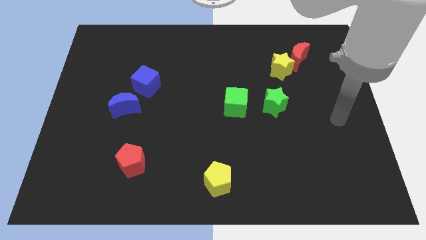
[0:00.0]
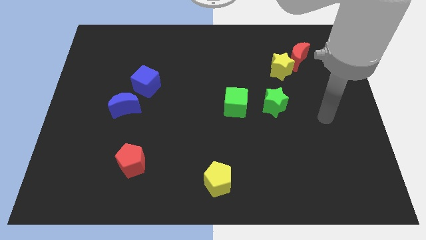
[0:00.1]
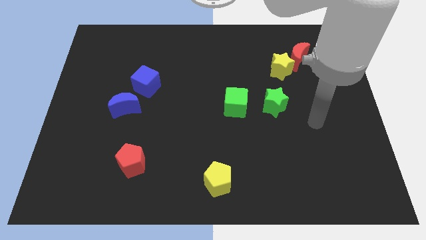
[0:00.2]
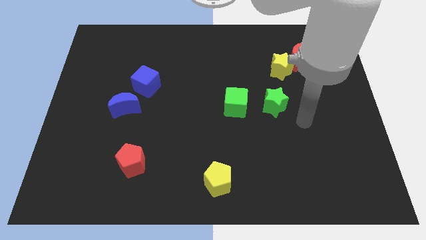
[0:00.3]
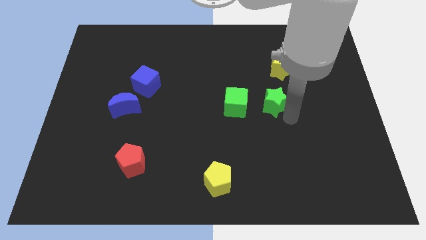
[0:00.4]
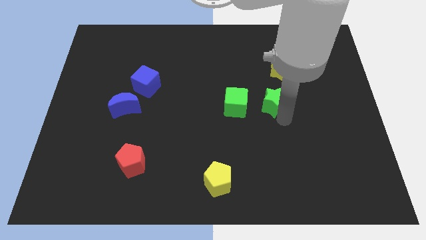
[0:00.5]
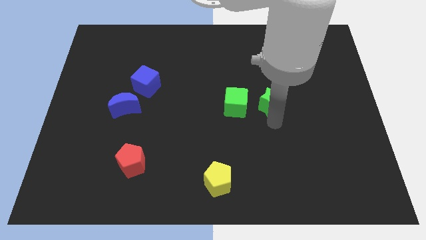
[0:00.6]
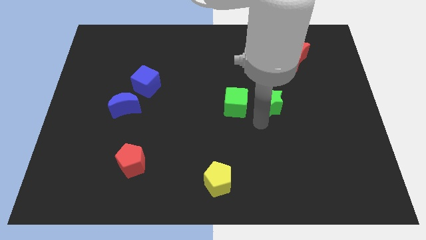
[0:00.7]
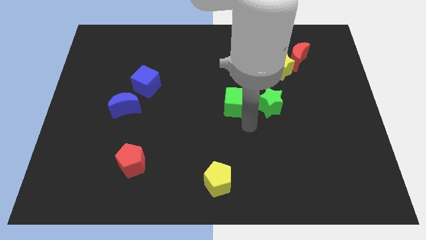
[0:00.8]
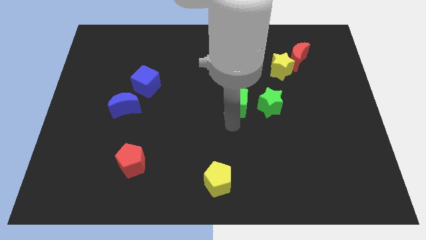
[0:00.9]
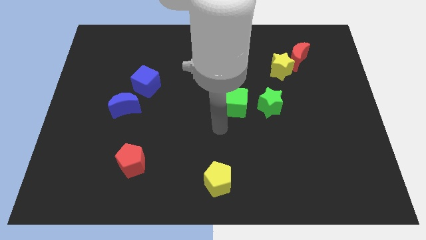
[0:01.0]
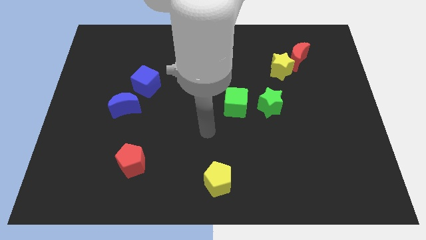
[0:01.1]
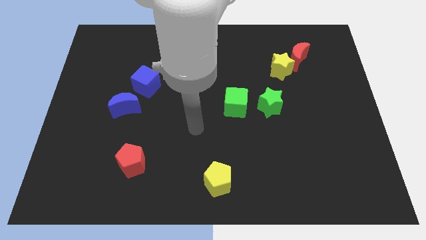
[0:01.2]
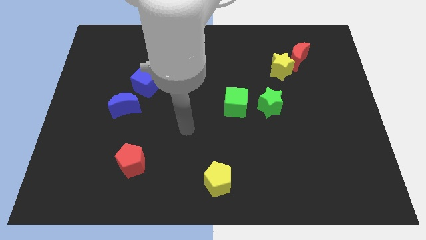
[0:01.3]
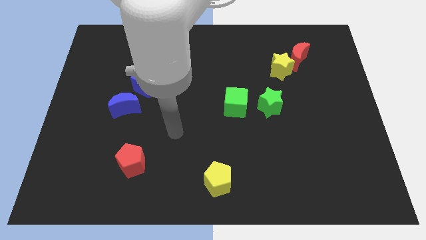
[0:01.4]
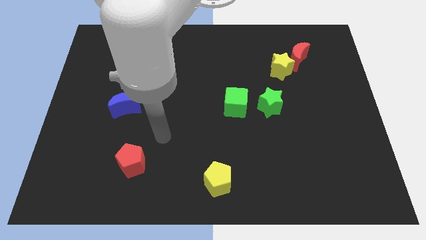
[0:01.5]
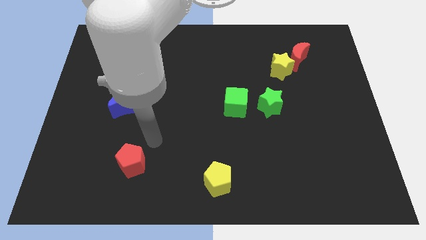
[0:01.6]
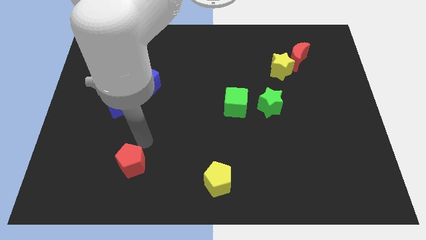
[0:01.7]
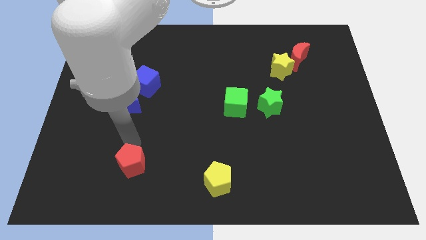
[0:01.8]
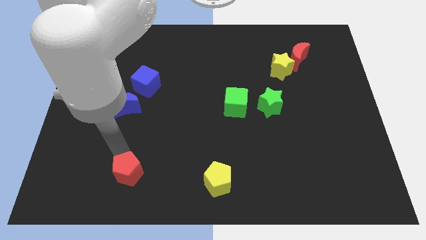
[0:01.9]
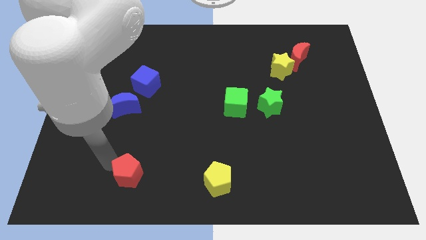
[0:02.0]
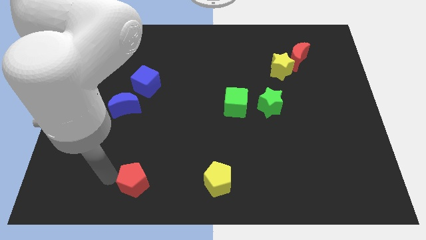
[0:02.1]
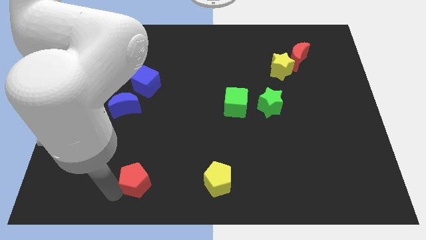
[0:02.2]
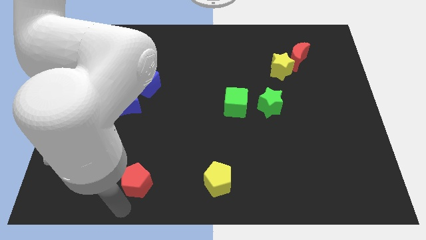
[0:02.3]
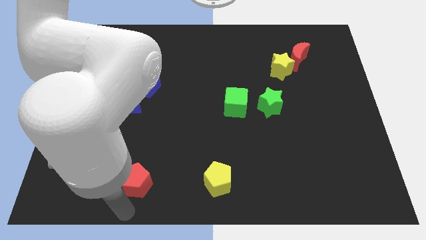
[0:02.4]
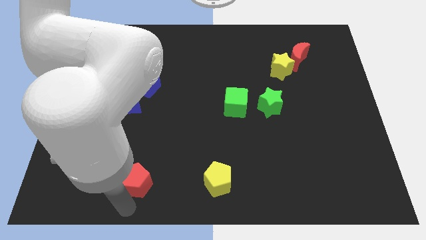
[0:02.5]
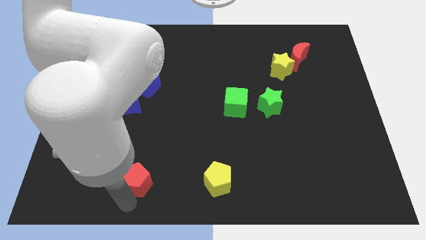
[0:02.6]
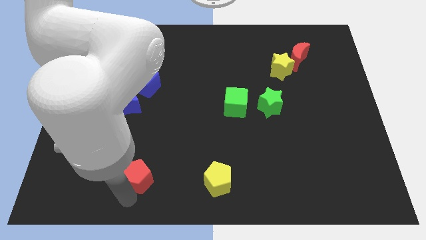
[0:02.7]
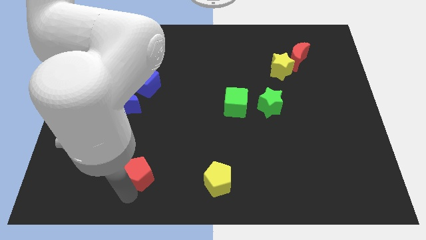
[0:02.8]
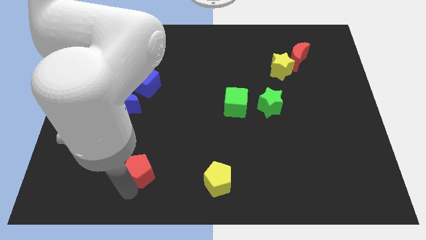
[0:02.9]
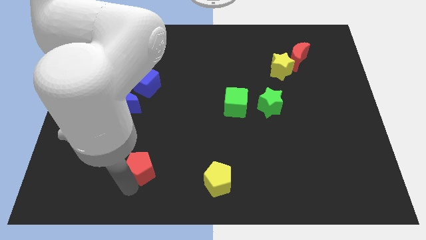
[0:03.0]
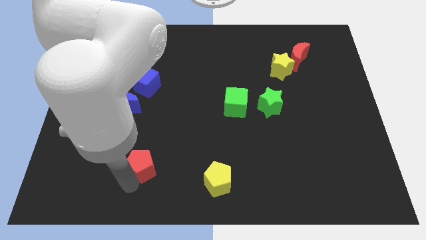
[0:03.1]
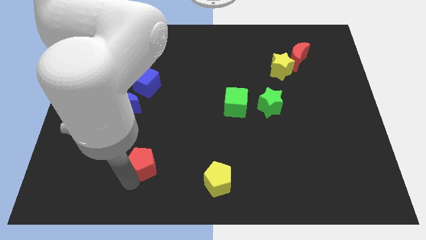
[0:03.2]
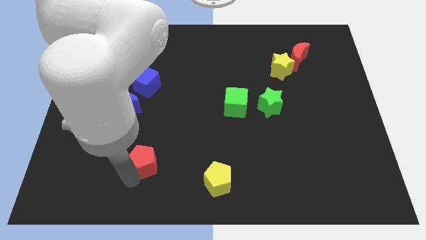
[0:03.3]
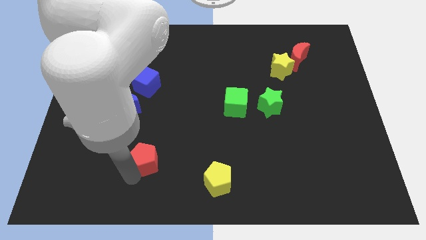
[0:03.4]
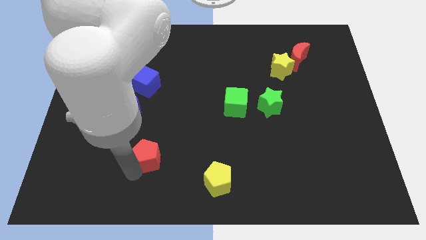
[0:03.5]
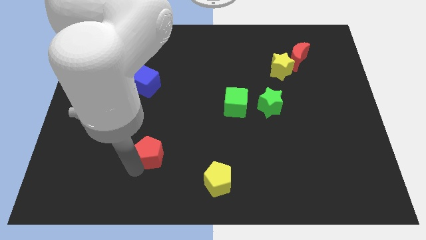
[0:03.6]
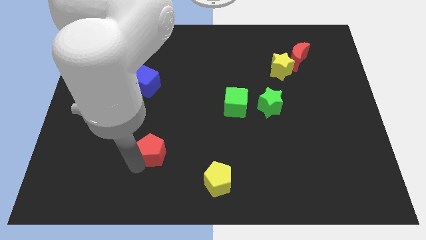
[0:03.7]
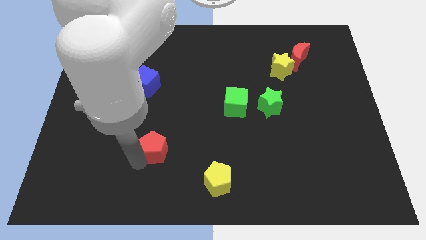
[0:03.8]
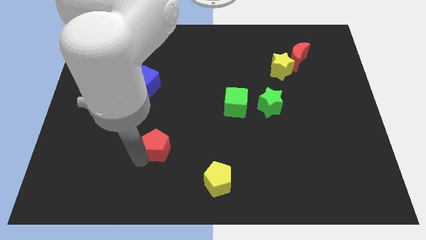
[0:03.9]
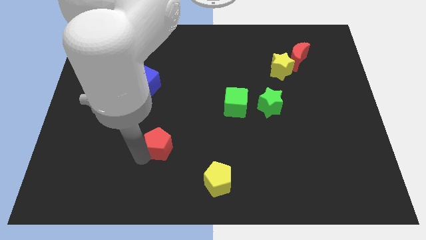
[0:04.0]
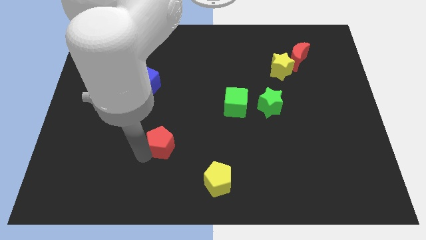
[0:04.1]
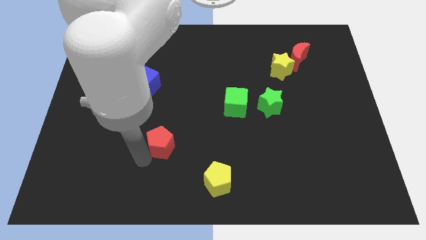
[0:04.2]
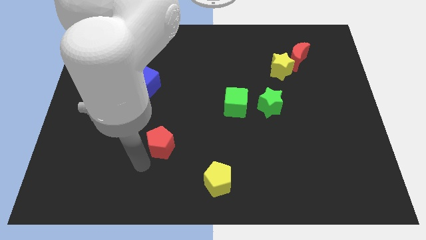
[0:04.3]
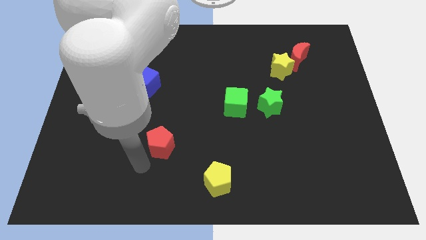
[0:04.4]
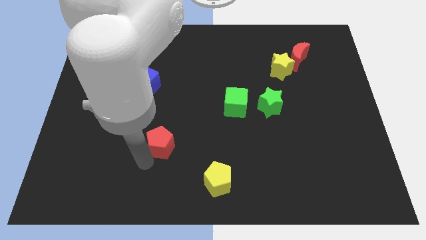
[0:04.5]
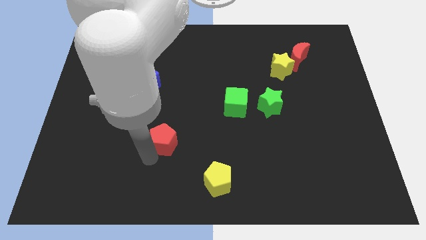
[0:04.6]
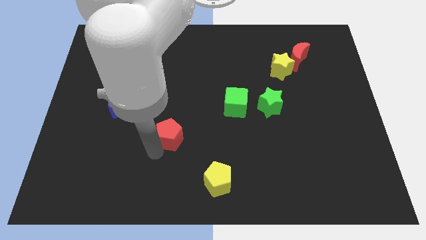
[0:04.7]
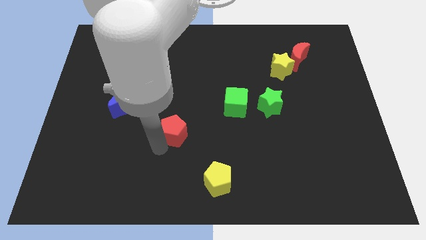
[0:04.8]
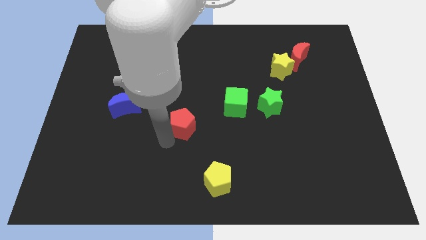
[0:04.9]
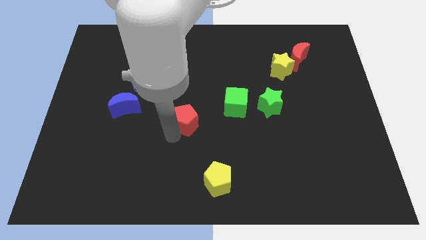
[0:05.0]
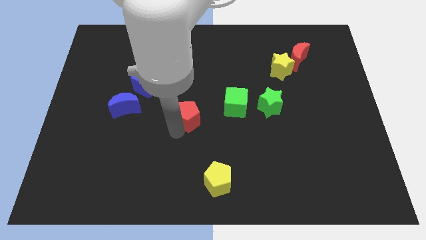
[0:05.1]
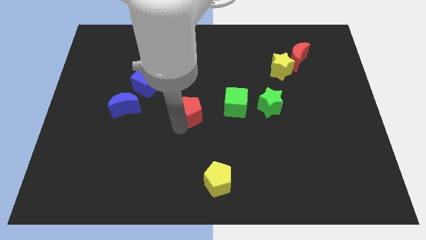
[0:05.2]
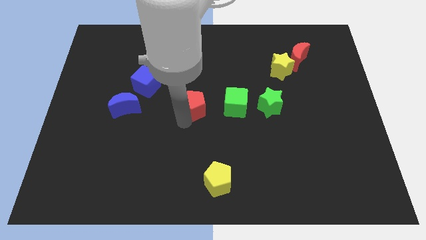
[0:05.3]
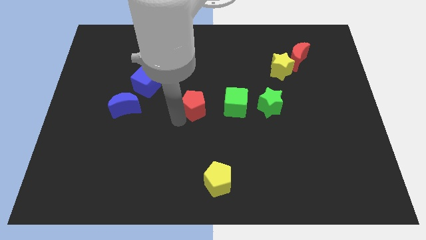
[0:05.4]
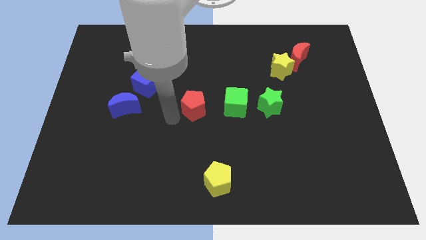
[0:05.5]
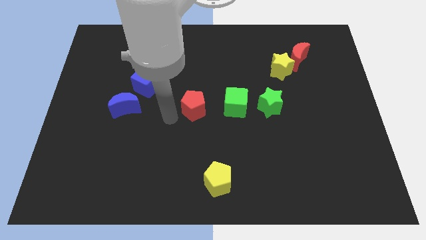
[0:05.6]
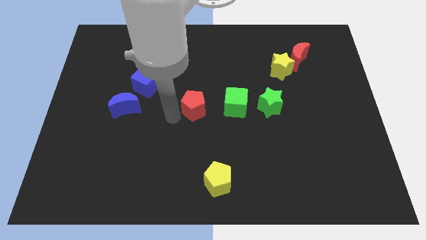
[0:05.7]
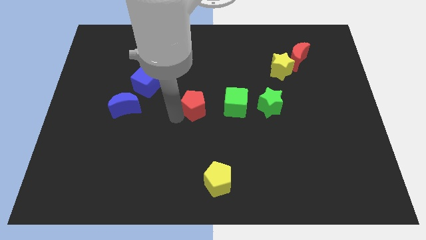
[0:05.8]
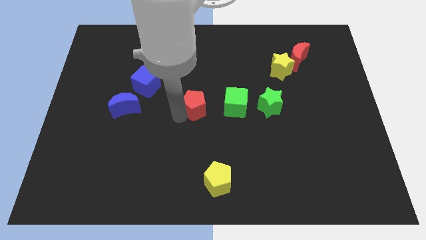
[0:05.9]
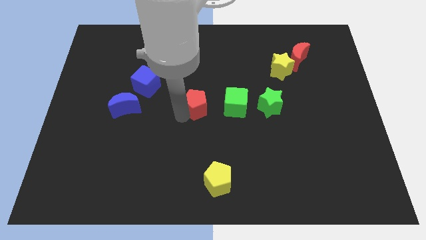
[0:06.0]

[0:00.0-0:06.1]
slide the red pentagon diagonally upwards and right

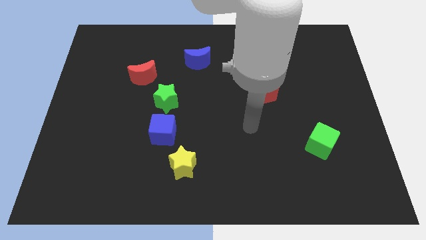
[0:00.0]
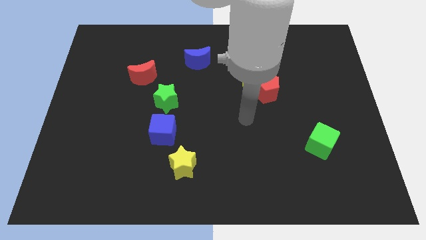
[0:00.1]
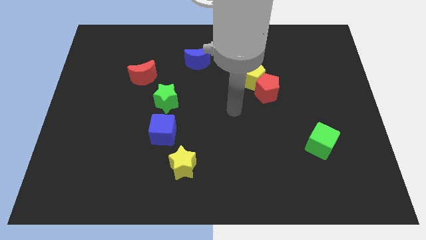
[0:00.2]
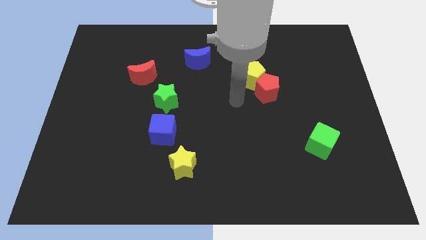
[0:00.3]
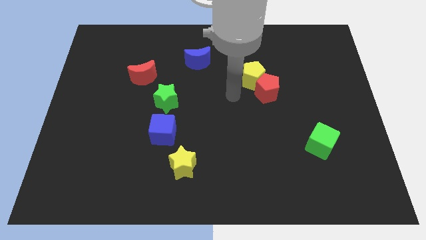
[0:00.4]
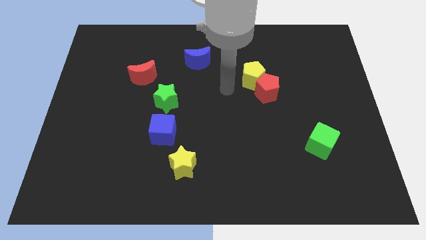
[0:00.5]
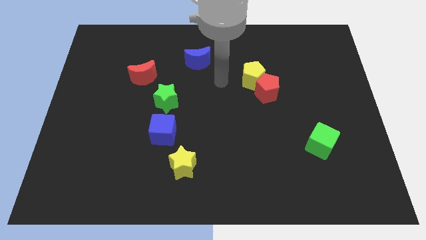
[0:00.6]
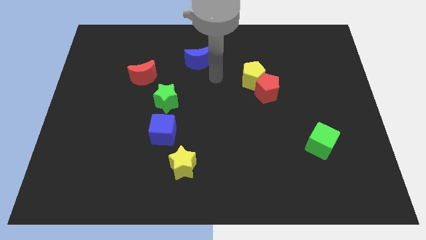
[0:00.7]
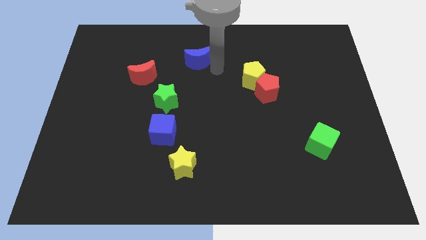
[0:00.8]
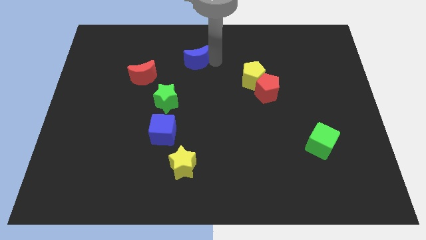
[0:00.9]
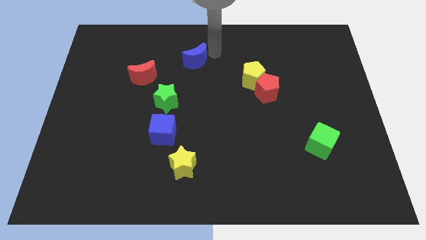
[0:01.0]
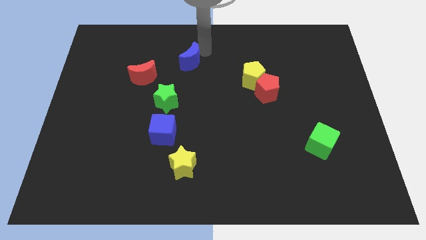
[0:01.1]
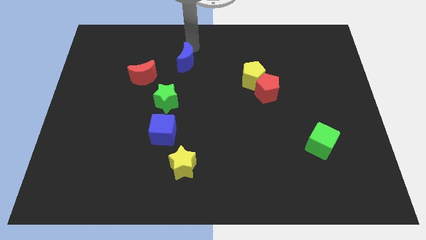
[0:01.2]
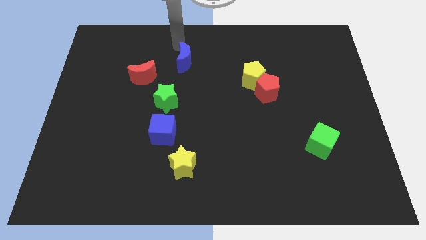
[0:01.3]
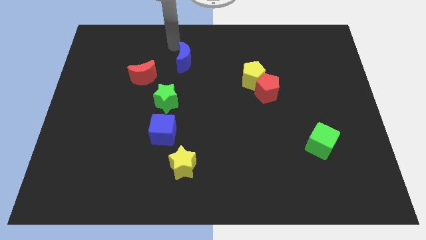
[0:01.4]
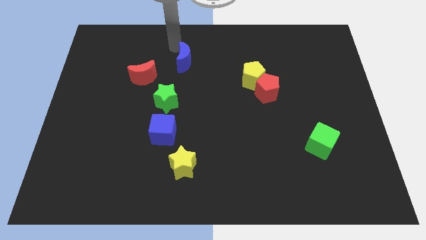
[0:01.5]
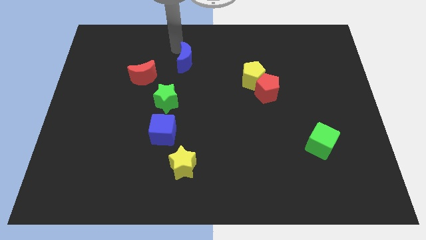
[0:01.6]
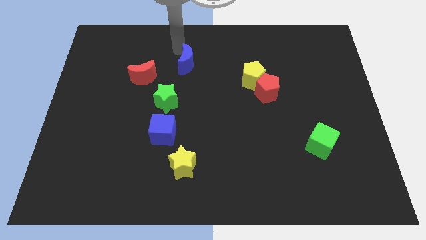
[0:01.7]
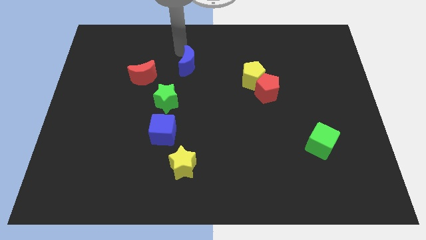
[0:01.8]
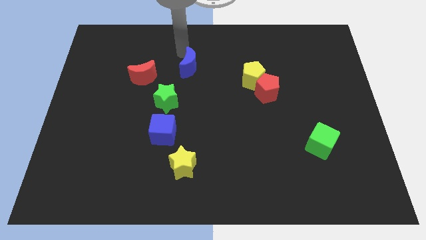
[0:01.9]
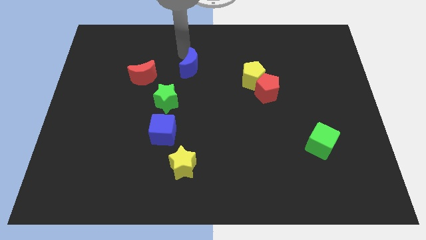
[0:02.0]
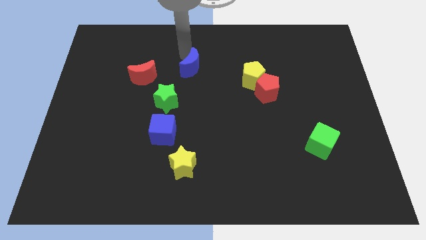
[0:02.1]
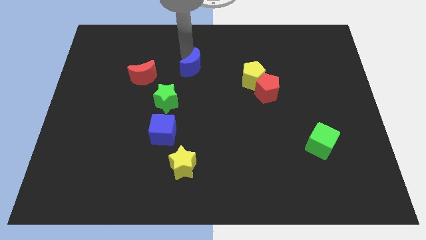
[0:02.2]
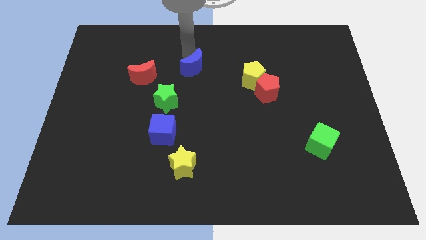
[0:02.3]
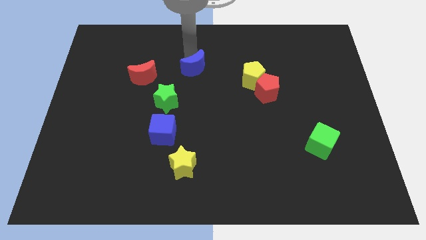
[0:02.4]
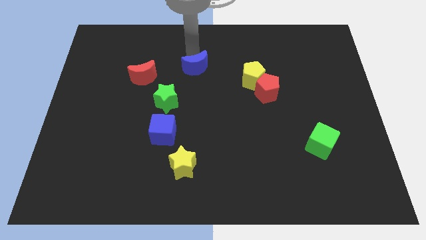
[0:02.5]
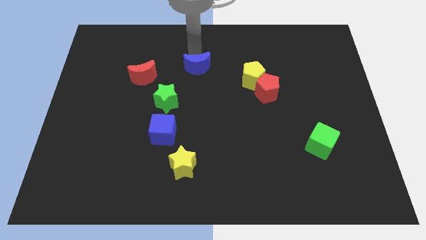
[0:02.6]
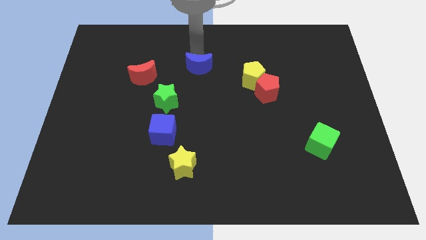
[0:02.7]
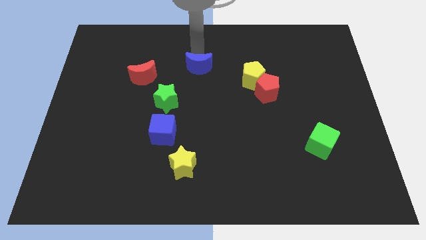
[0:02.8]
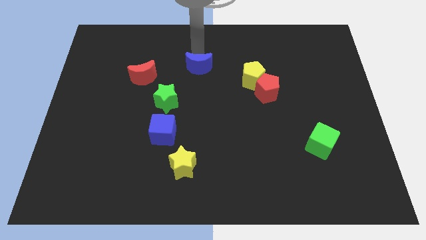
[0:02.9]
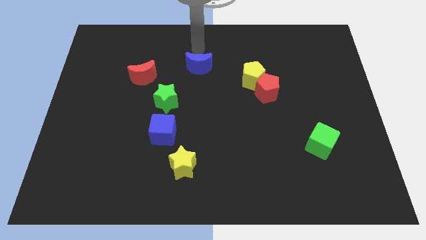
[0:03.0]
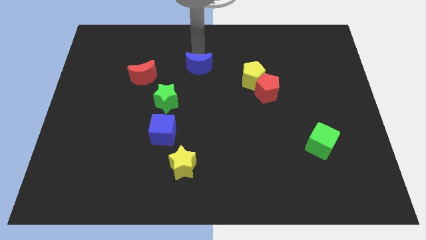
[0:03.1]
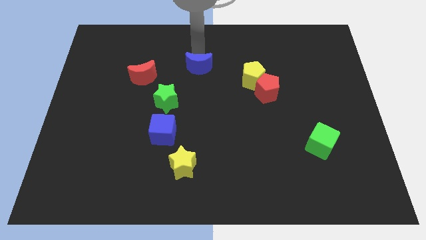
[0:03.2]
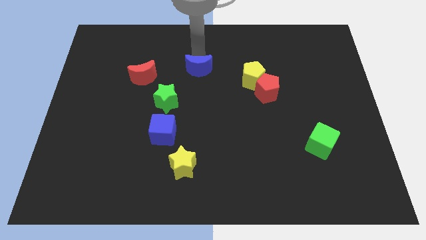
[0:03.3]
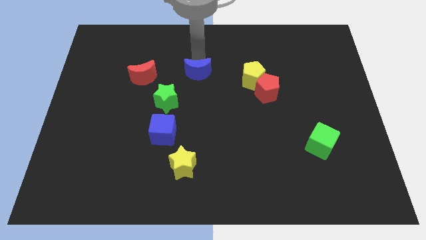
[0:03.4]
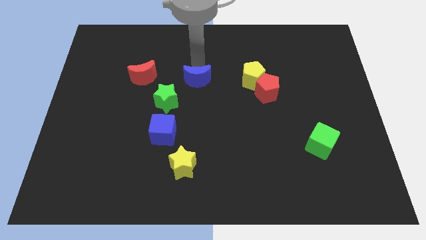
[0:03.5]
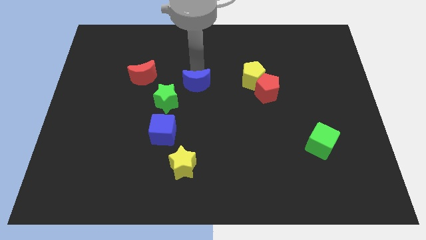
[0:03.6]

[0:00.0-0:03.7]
push the blue moon down a little
